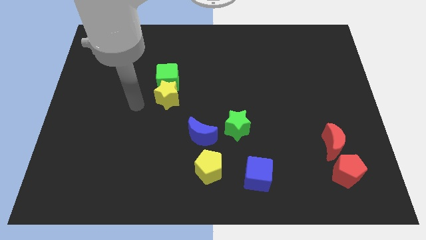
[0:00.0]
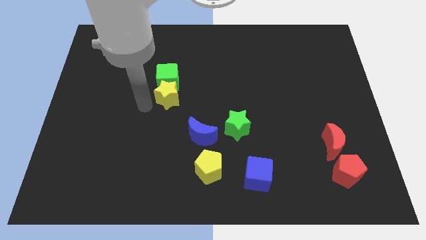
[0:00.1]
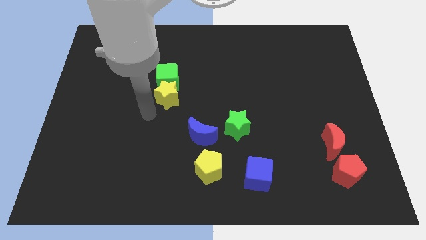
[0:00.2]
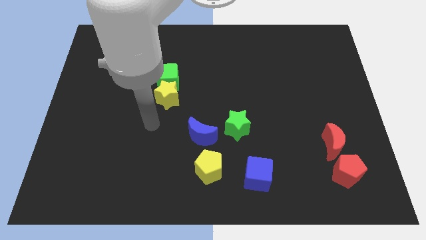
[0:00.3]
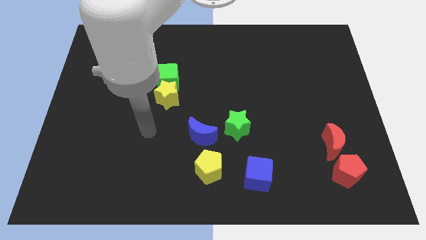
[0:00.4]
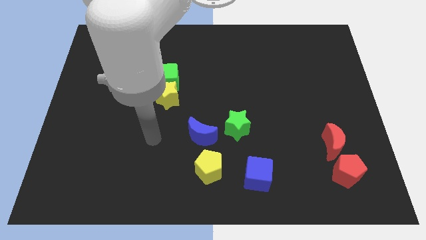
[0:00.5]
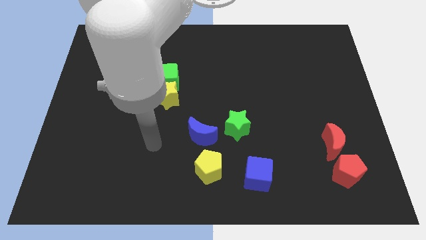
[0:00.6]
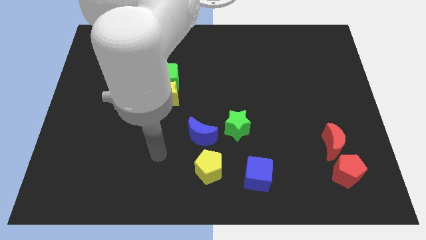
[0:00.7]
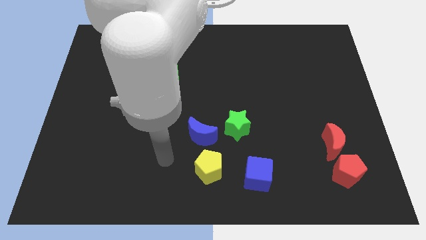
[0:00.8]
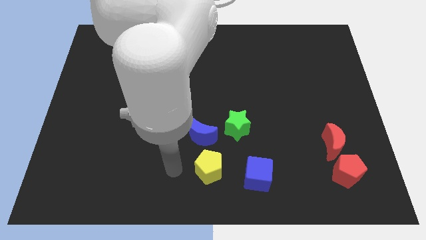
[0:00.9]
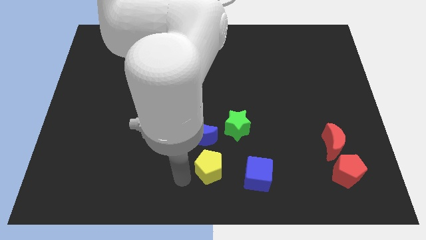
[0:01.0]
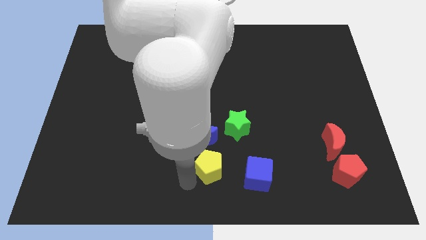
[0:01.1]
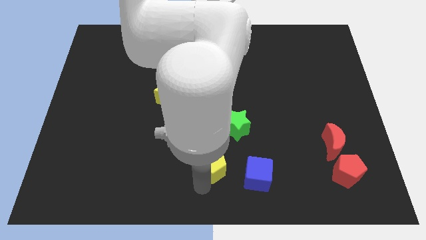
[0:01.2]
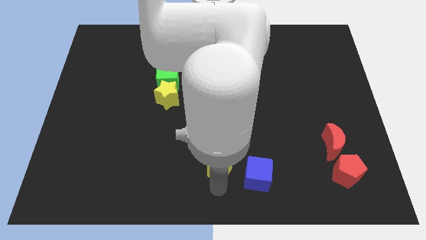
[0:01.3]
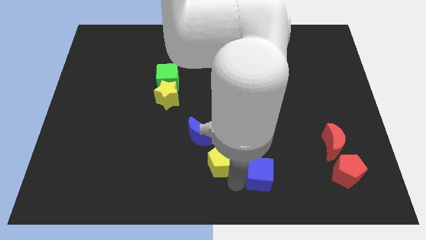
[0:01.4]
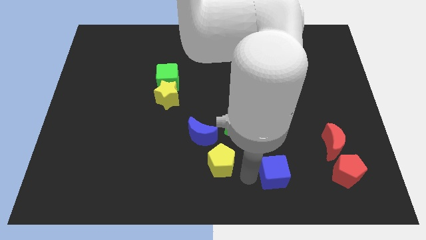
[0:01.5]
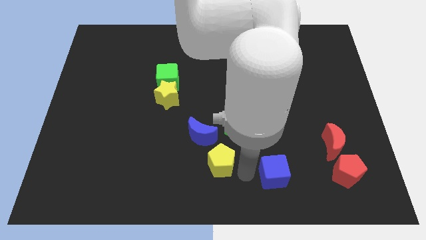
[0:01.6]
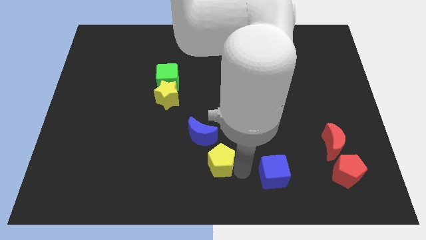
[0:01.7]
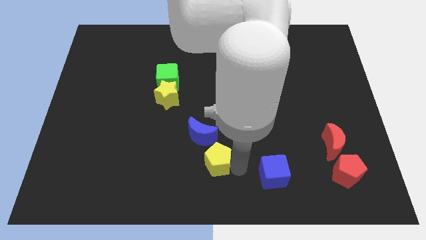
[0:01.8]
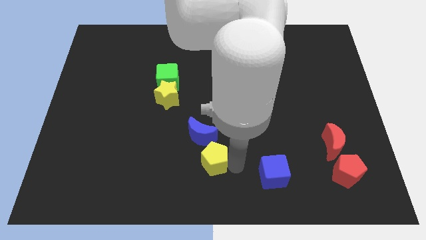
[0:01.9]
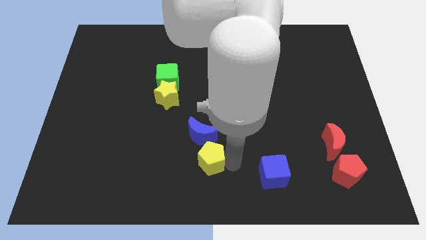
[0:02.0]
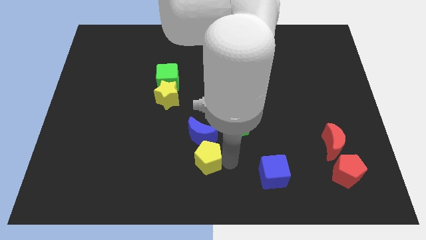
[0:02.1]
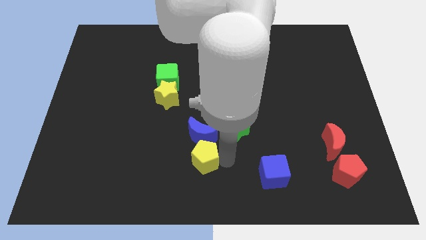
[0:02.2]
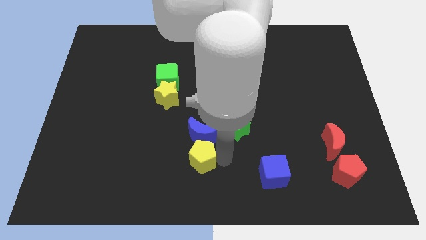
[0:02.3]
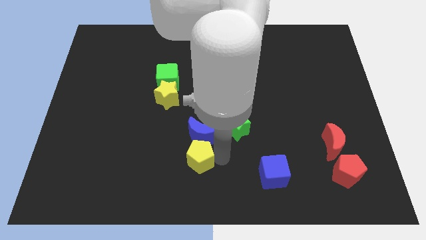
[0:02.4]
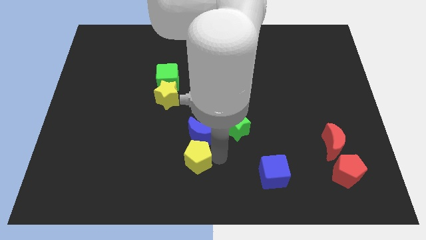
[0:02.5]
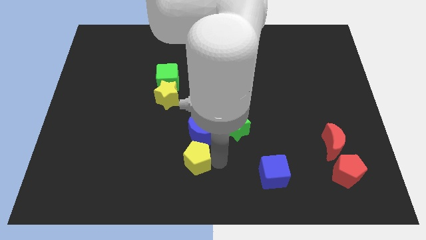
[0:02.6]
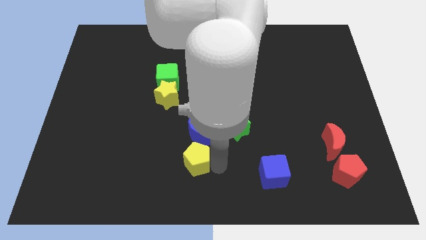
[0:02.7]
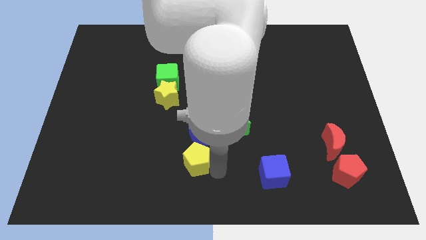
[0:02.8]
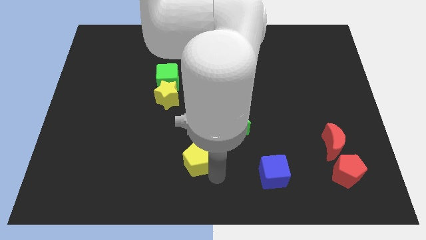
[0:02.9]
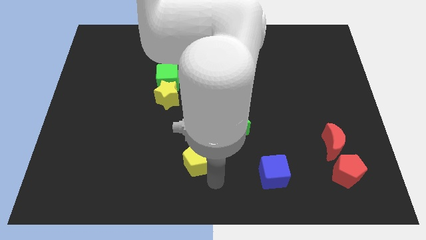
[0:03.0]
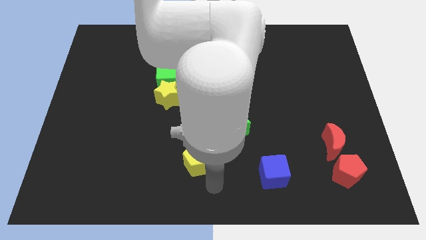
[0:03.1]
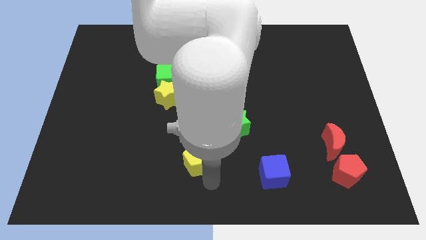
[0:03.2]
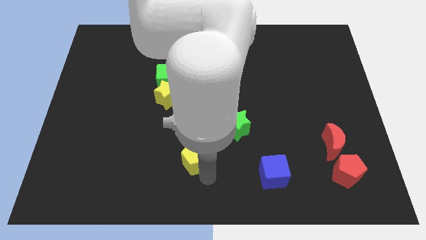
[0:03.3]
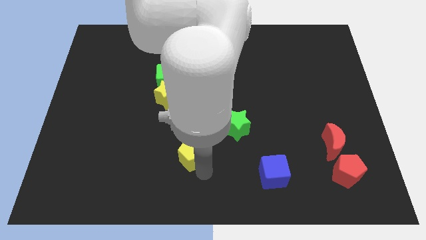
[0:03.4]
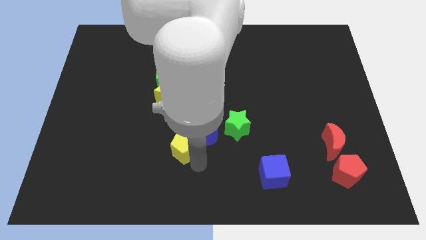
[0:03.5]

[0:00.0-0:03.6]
move the yellow pentagon upwards and left diagonally a little

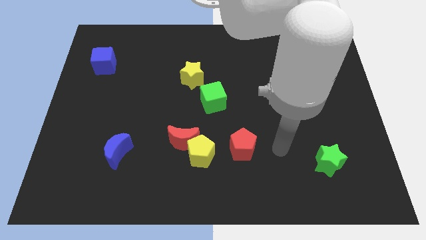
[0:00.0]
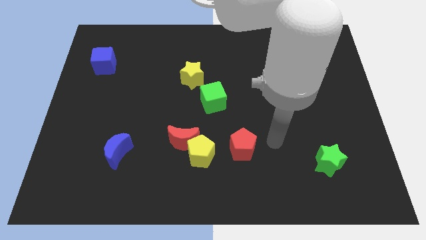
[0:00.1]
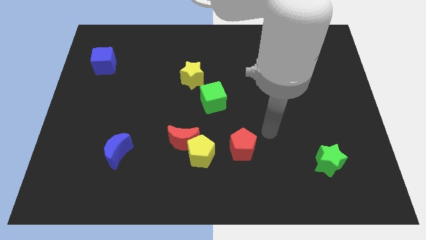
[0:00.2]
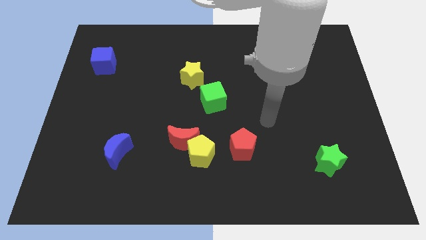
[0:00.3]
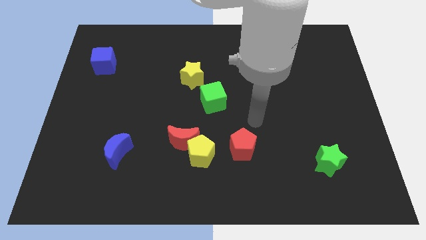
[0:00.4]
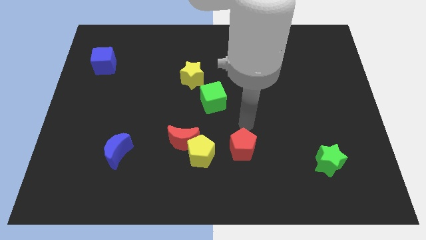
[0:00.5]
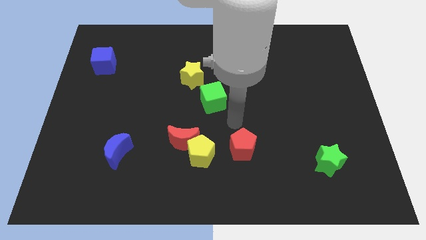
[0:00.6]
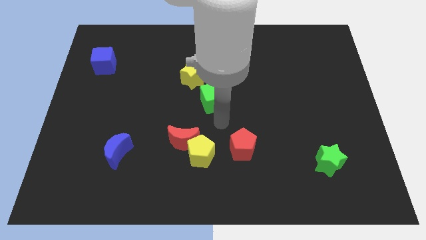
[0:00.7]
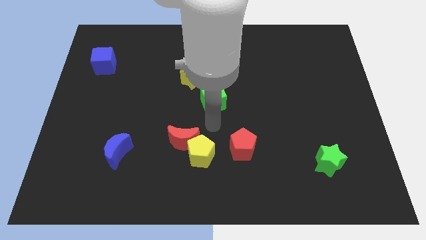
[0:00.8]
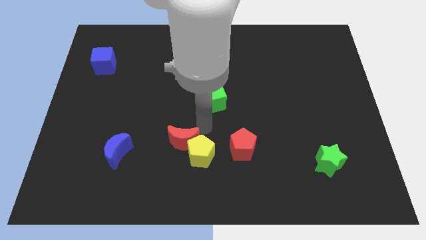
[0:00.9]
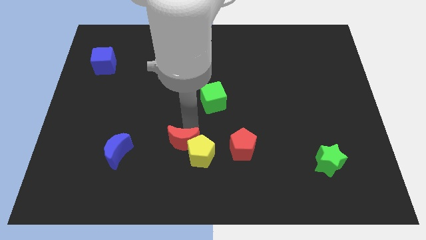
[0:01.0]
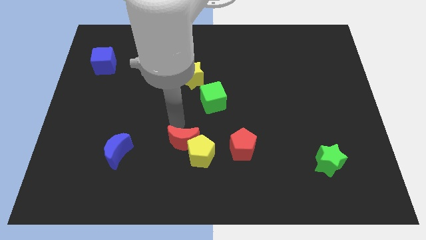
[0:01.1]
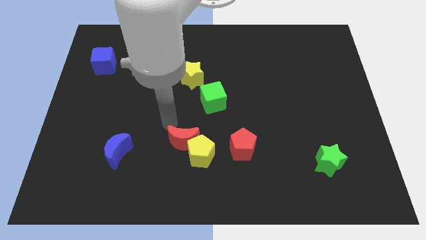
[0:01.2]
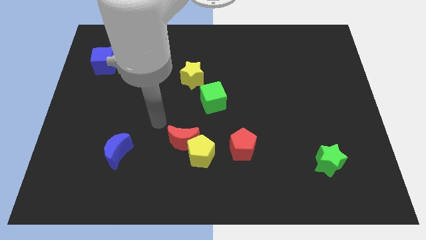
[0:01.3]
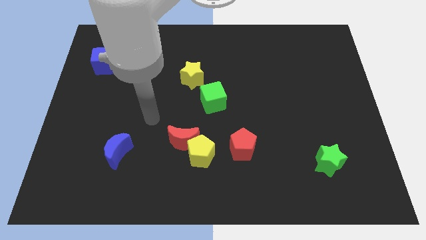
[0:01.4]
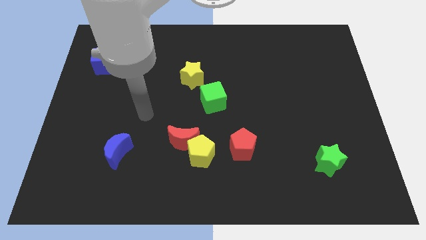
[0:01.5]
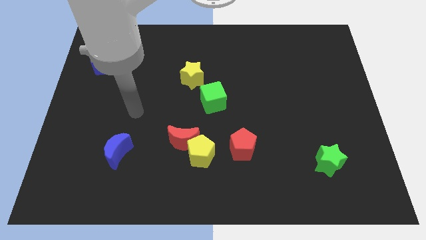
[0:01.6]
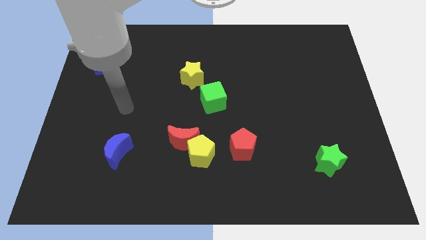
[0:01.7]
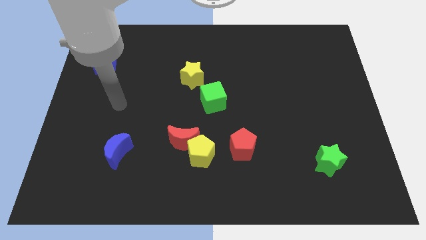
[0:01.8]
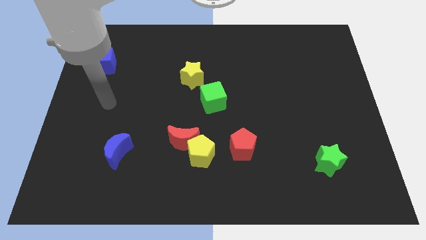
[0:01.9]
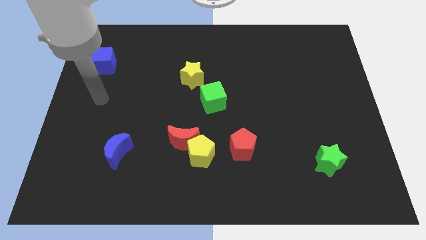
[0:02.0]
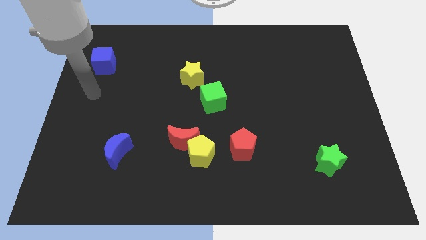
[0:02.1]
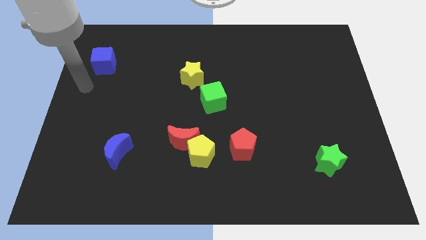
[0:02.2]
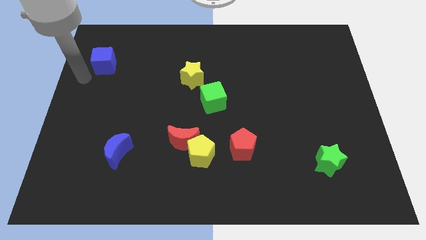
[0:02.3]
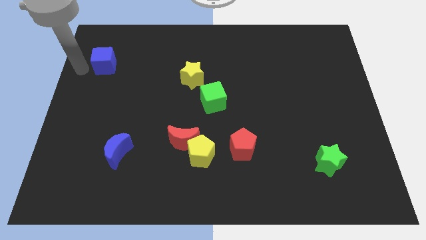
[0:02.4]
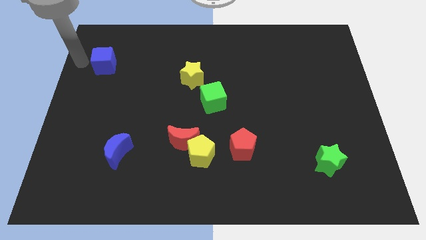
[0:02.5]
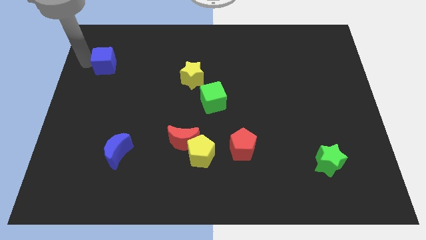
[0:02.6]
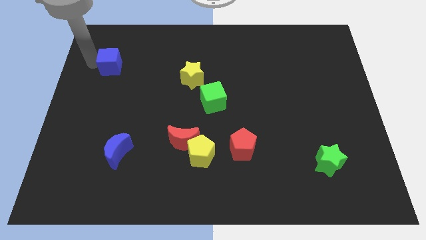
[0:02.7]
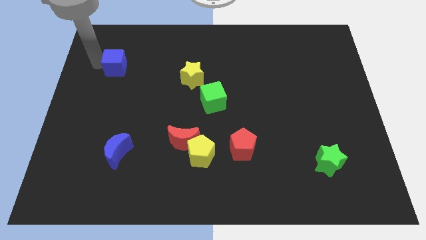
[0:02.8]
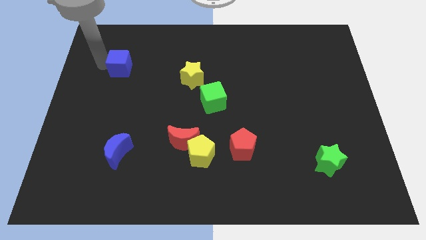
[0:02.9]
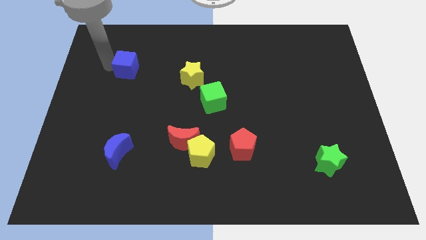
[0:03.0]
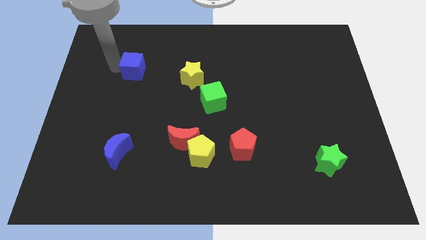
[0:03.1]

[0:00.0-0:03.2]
slightly push the blue cube right

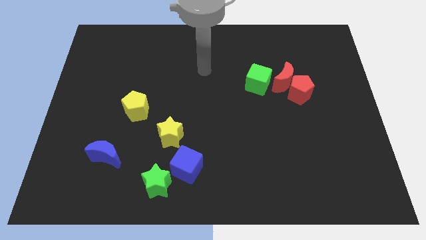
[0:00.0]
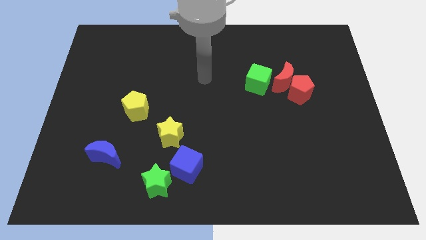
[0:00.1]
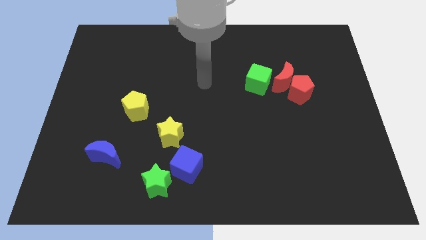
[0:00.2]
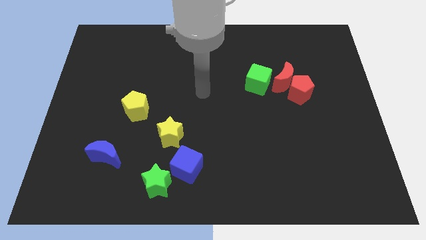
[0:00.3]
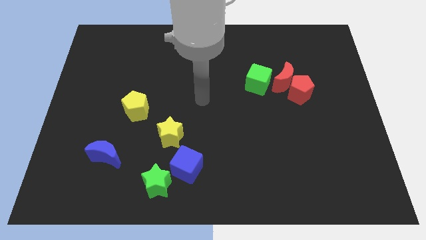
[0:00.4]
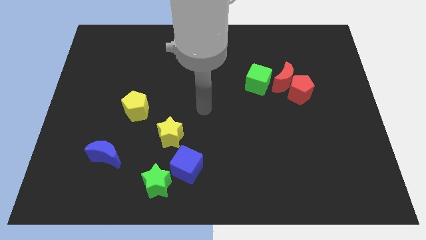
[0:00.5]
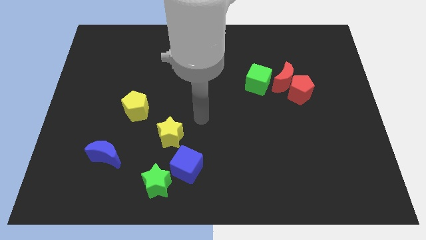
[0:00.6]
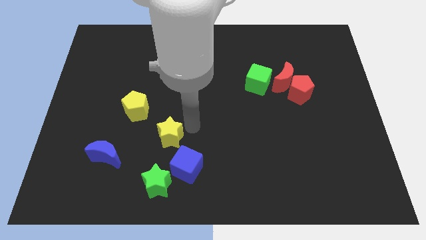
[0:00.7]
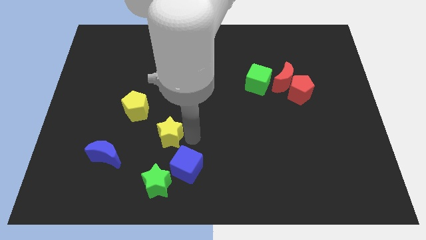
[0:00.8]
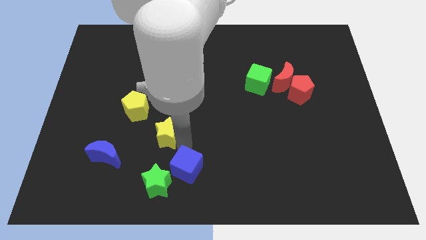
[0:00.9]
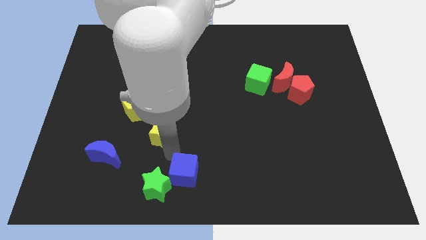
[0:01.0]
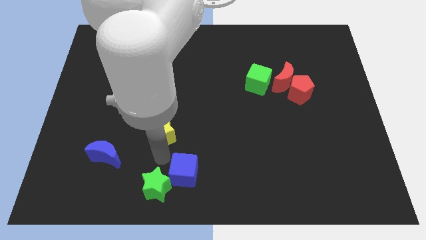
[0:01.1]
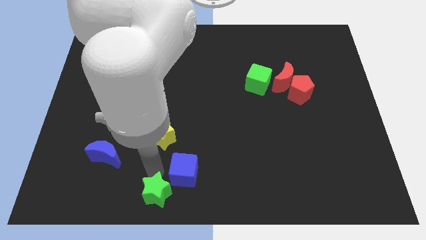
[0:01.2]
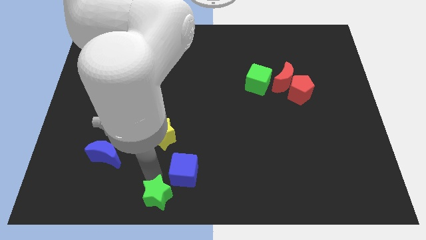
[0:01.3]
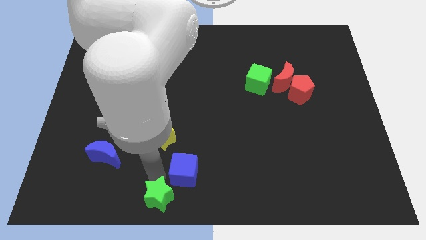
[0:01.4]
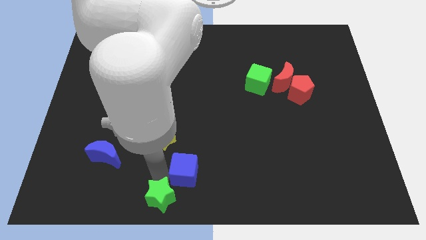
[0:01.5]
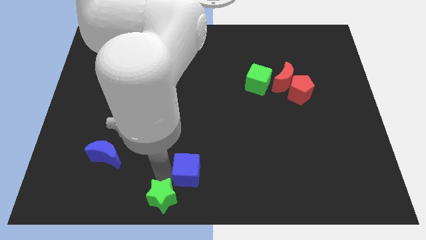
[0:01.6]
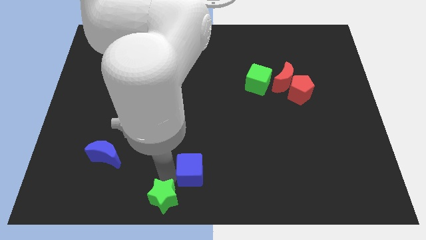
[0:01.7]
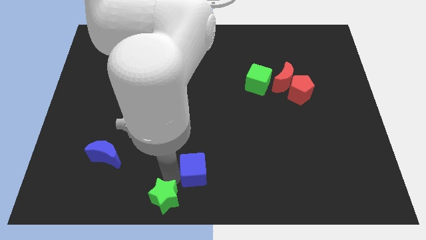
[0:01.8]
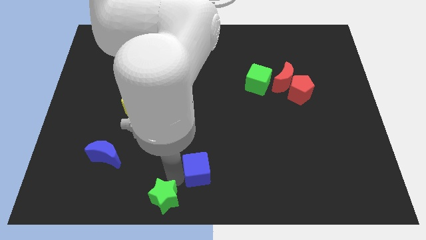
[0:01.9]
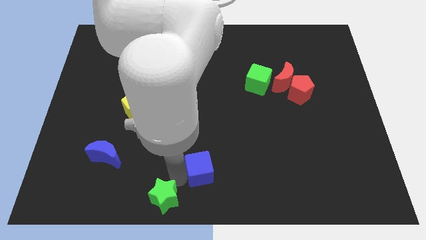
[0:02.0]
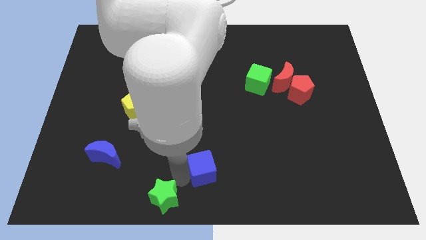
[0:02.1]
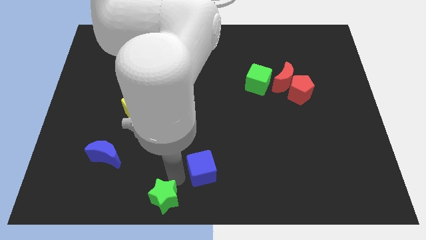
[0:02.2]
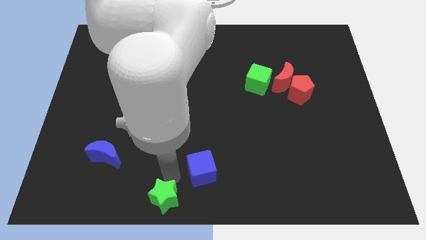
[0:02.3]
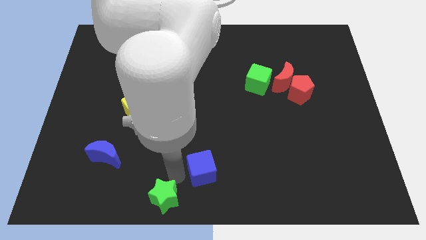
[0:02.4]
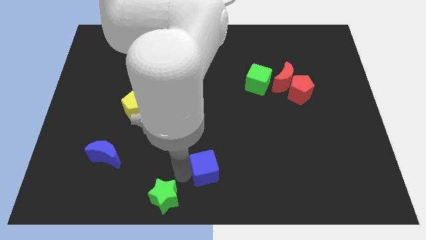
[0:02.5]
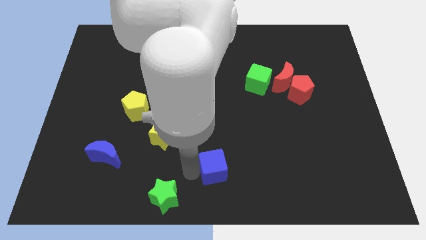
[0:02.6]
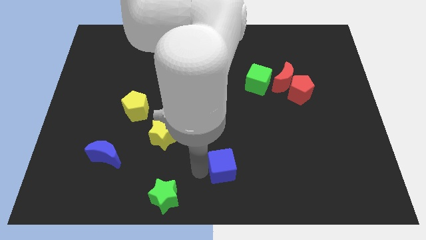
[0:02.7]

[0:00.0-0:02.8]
move the blue cube slightly to the right
